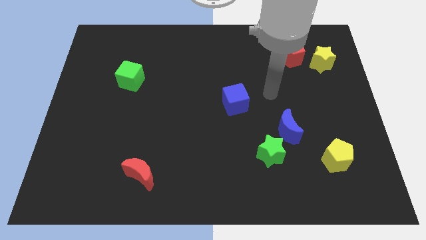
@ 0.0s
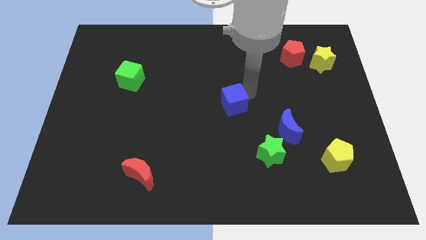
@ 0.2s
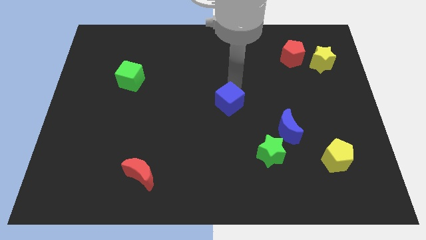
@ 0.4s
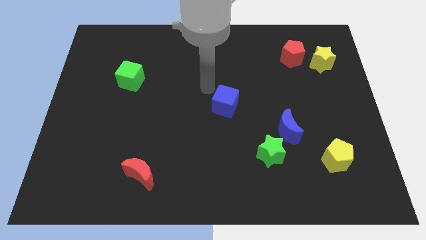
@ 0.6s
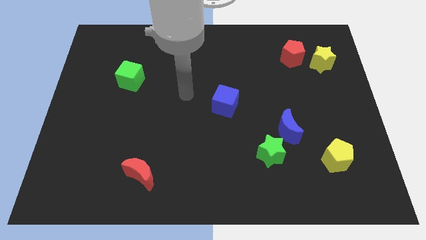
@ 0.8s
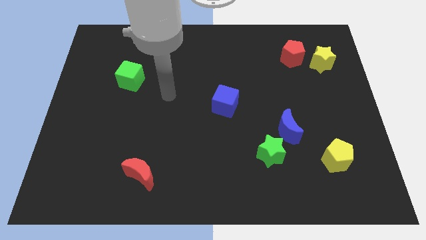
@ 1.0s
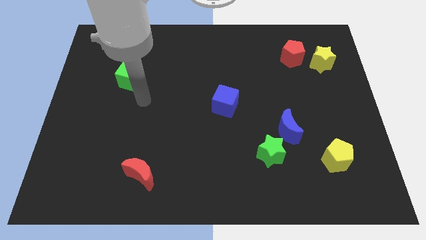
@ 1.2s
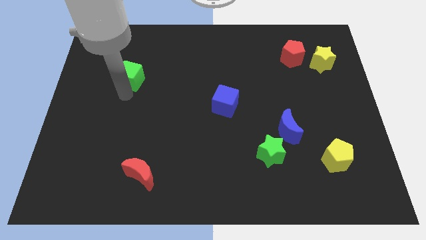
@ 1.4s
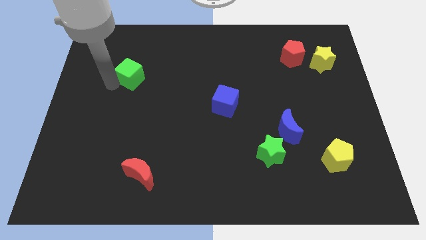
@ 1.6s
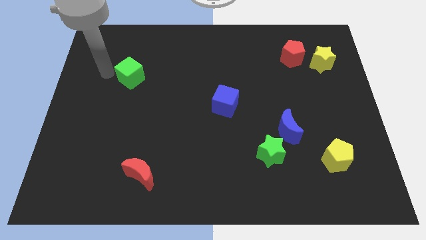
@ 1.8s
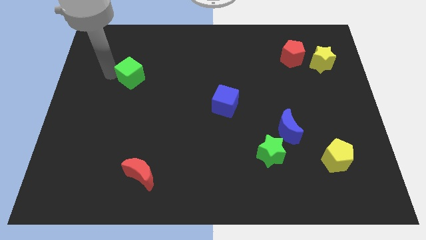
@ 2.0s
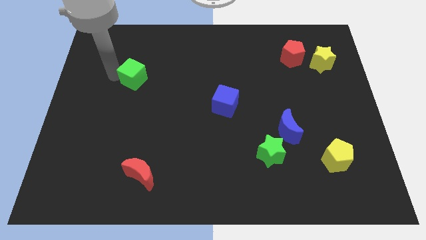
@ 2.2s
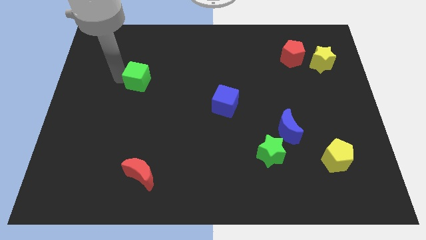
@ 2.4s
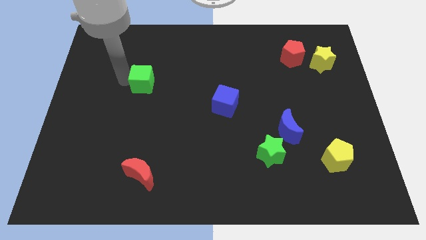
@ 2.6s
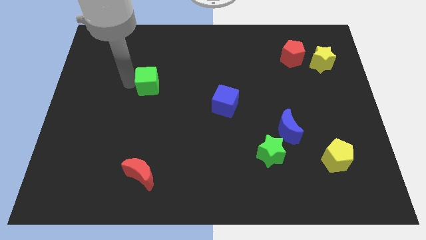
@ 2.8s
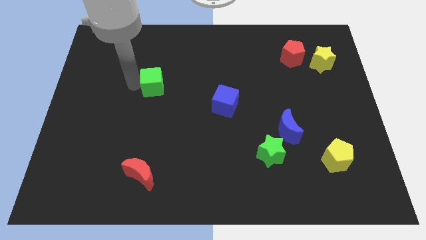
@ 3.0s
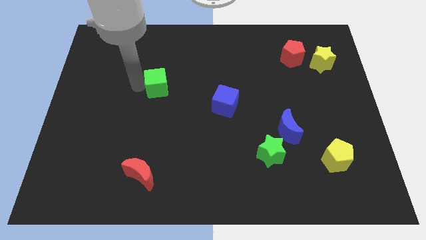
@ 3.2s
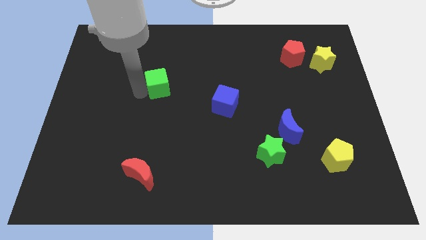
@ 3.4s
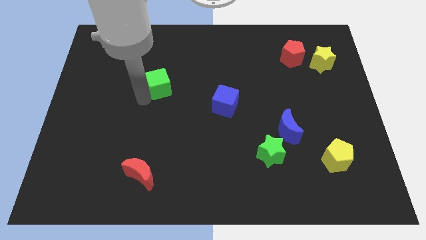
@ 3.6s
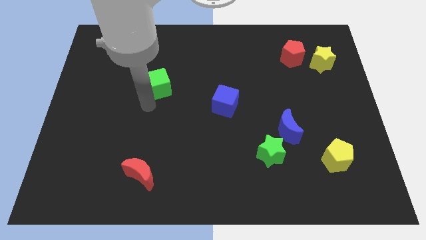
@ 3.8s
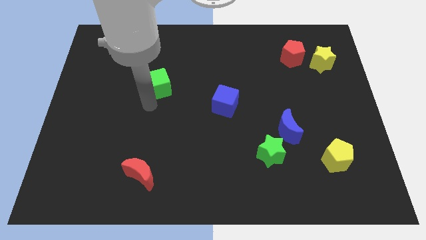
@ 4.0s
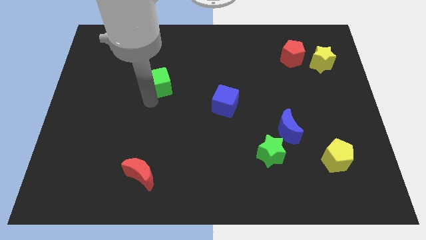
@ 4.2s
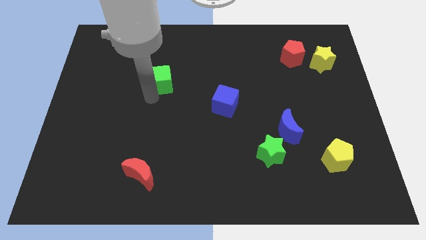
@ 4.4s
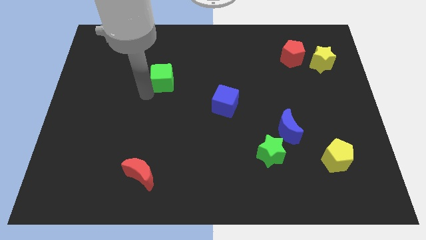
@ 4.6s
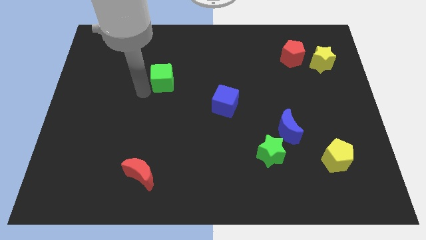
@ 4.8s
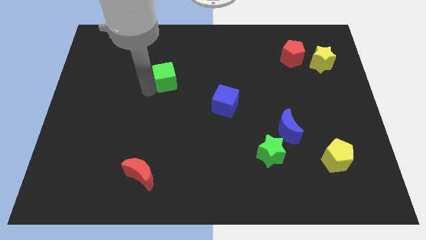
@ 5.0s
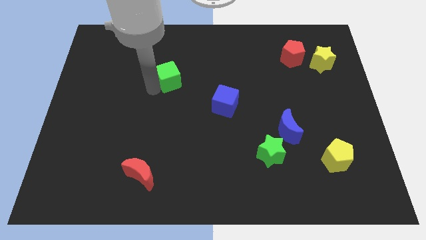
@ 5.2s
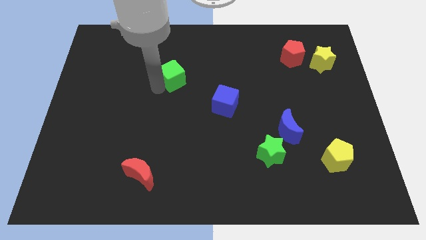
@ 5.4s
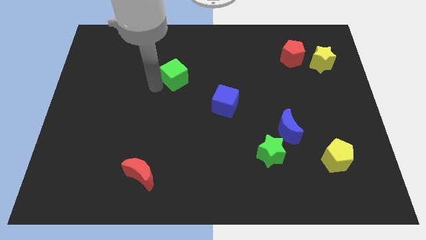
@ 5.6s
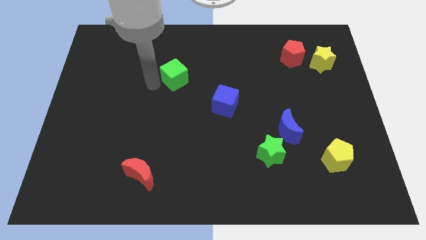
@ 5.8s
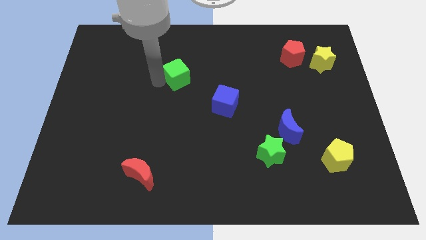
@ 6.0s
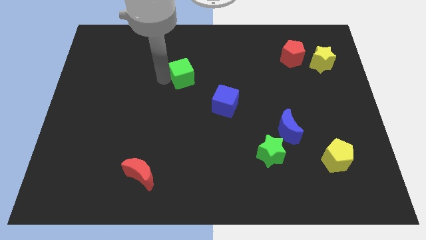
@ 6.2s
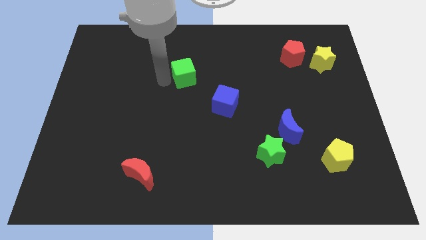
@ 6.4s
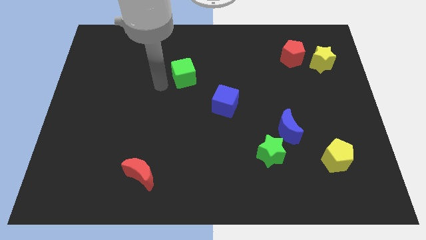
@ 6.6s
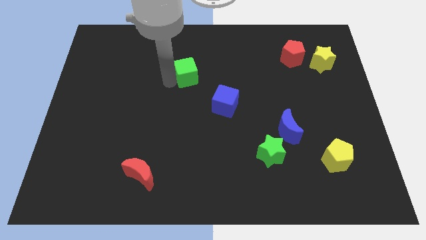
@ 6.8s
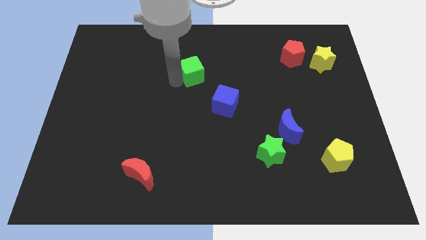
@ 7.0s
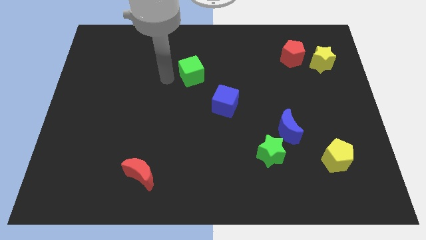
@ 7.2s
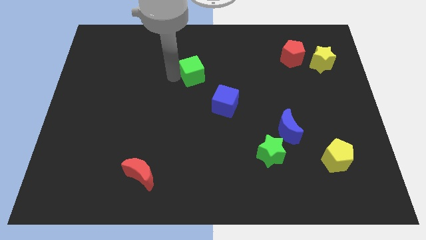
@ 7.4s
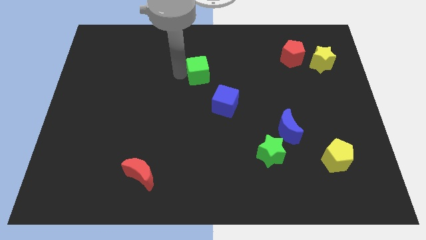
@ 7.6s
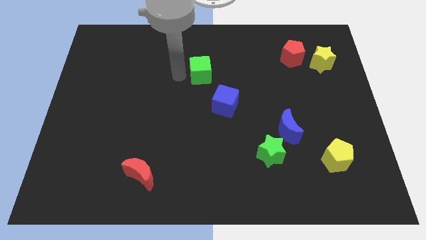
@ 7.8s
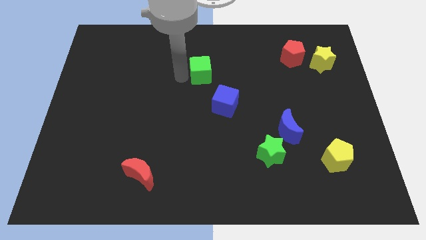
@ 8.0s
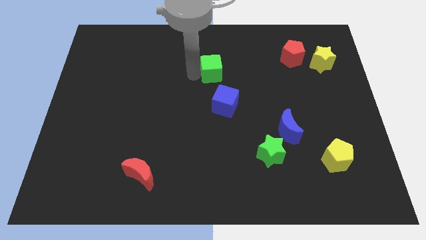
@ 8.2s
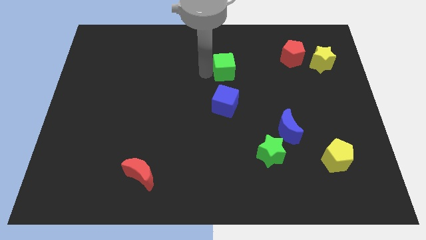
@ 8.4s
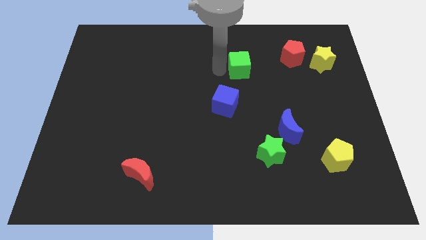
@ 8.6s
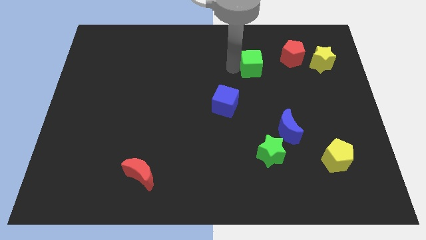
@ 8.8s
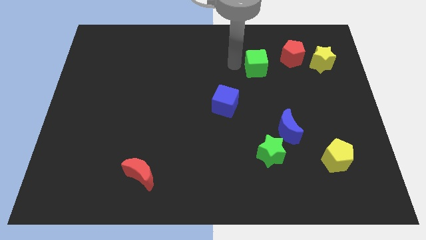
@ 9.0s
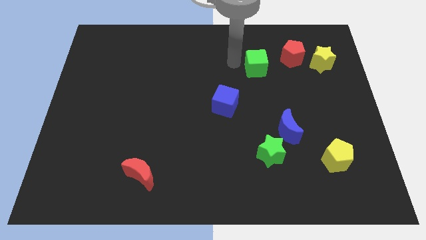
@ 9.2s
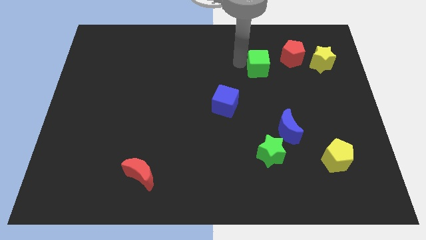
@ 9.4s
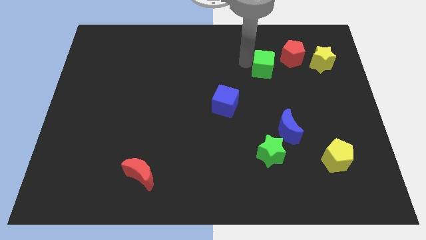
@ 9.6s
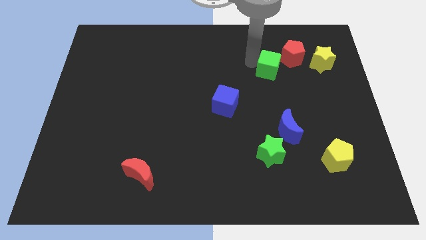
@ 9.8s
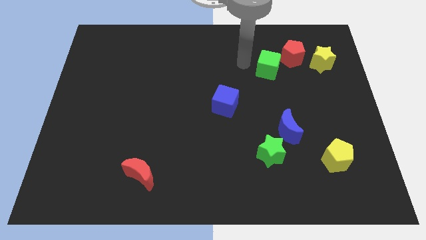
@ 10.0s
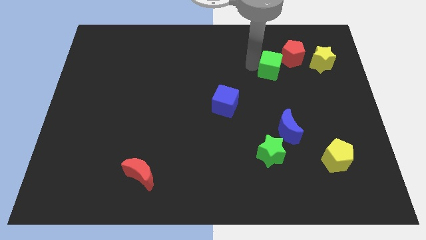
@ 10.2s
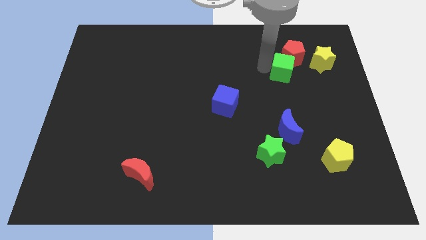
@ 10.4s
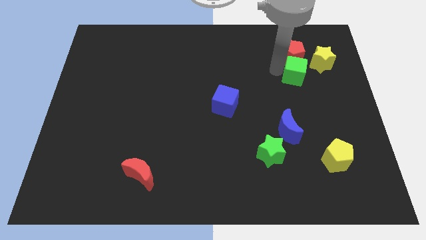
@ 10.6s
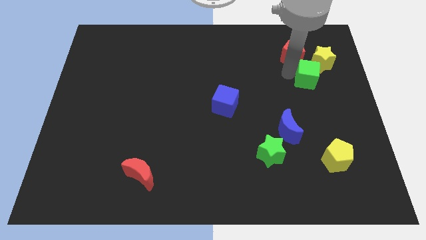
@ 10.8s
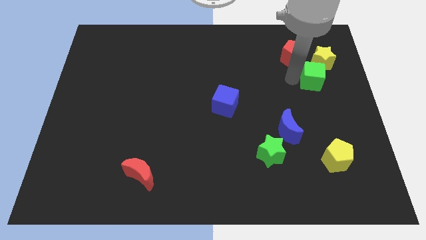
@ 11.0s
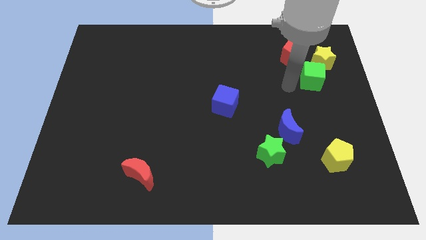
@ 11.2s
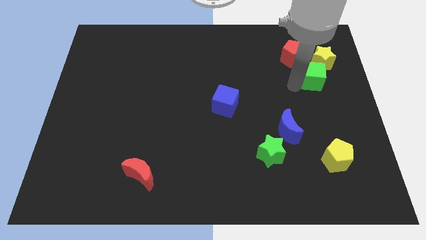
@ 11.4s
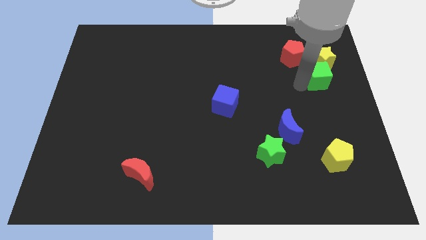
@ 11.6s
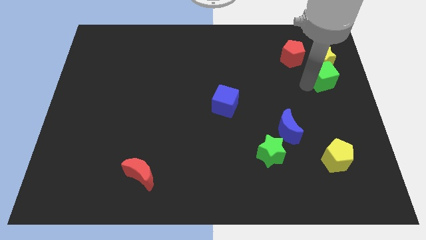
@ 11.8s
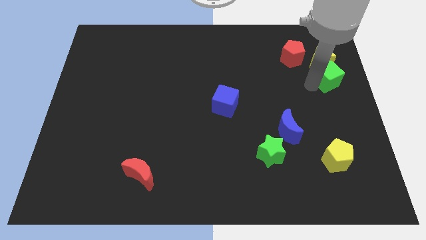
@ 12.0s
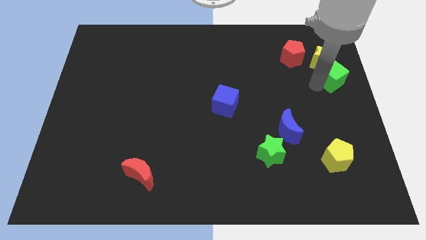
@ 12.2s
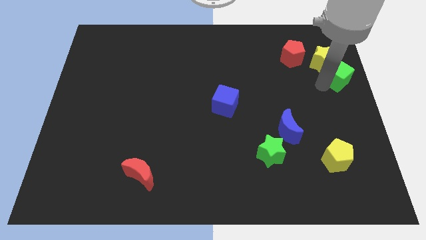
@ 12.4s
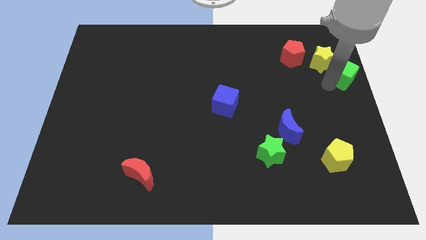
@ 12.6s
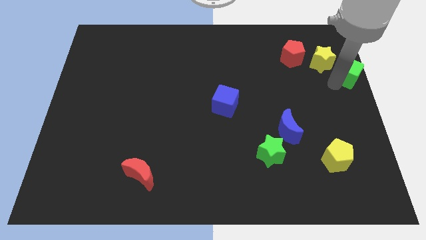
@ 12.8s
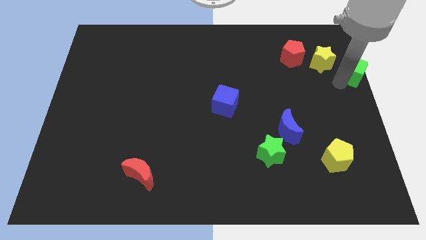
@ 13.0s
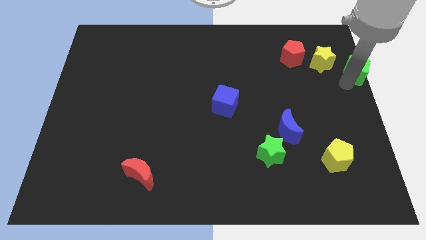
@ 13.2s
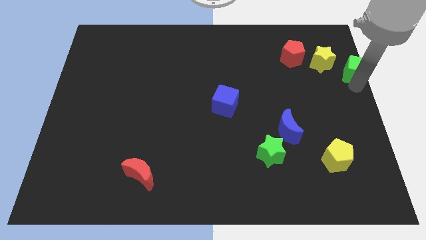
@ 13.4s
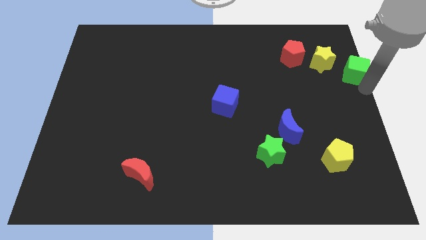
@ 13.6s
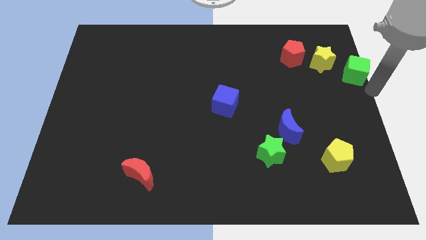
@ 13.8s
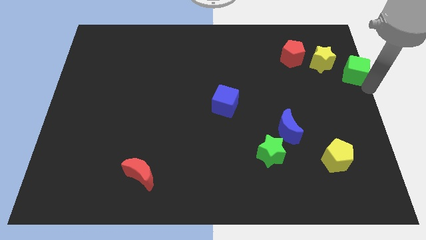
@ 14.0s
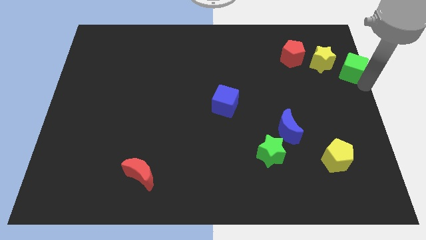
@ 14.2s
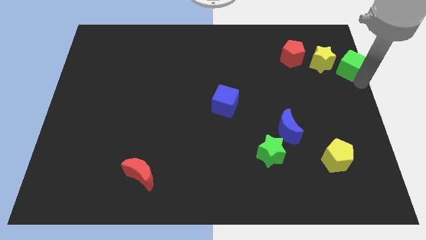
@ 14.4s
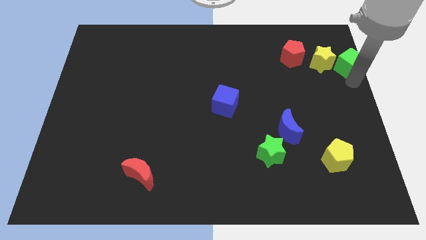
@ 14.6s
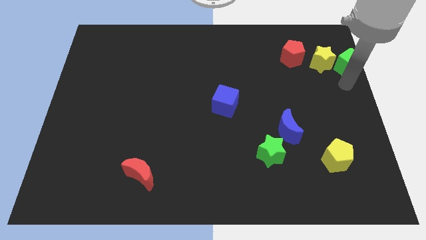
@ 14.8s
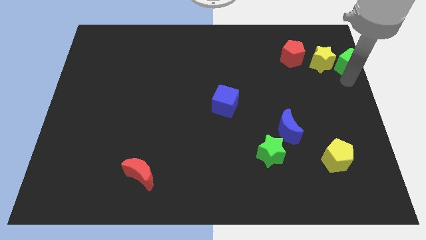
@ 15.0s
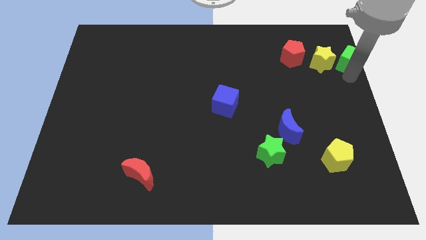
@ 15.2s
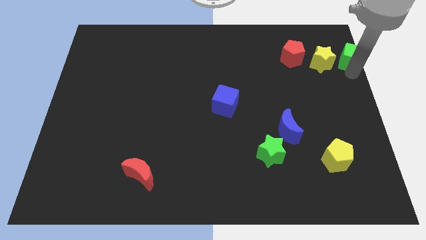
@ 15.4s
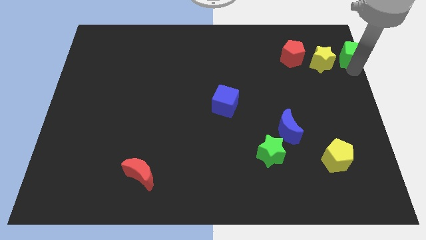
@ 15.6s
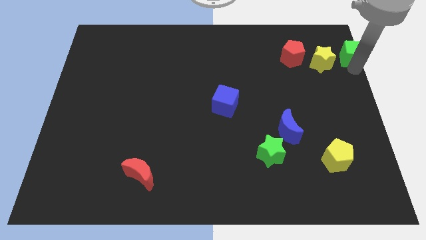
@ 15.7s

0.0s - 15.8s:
put the green cube to the upper right corner
